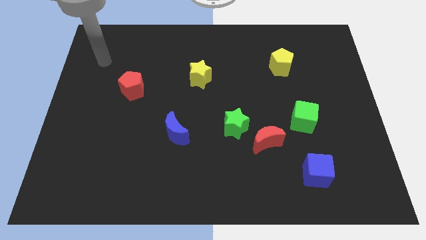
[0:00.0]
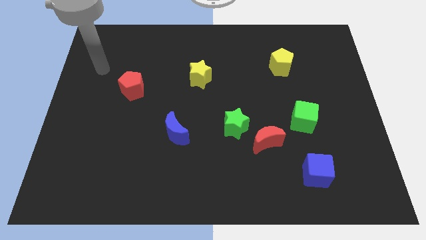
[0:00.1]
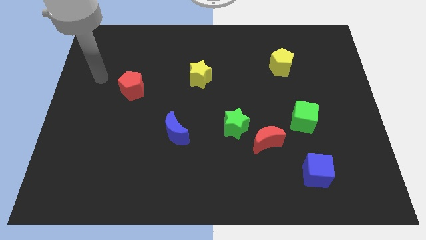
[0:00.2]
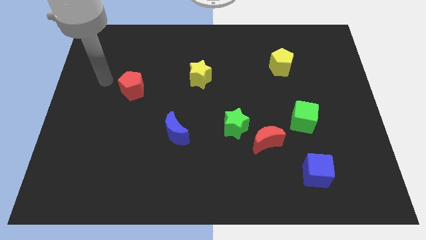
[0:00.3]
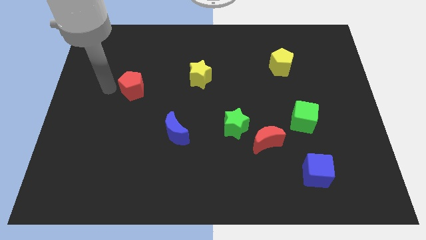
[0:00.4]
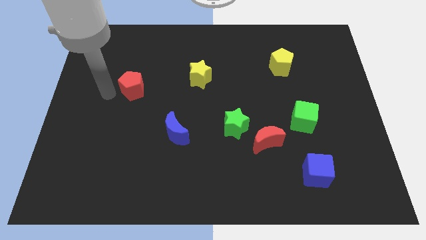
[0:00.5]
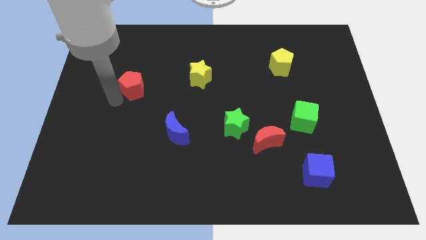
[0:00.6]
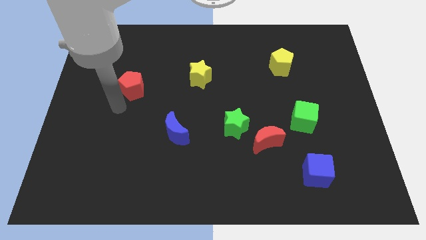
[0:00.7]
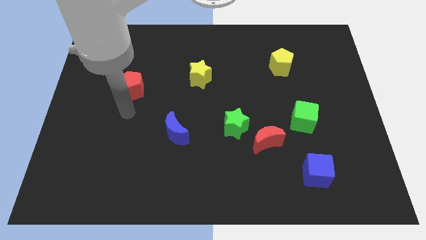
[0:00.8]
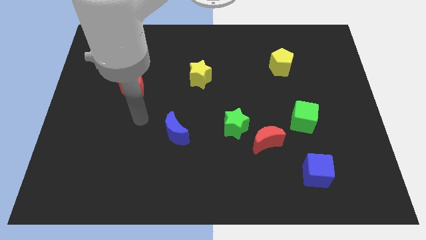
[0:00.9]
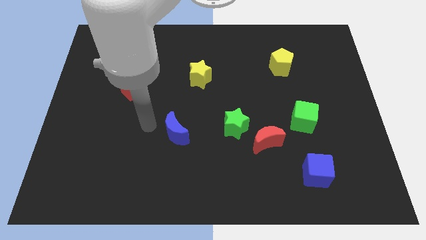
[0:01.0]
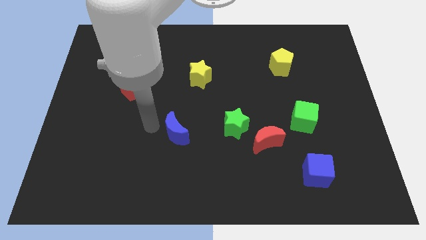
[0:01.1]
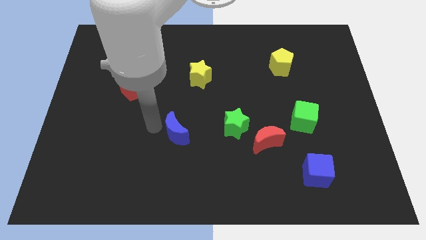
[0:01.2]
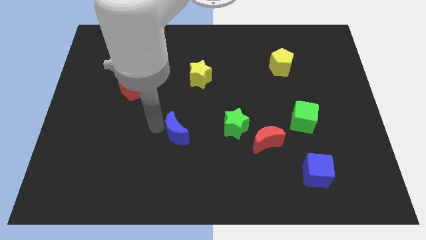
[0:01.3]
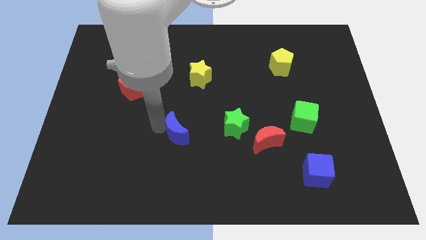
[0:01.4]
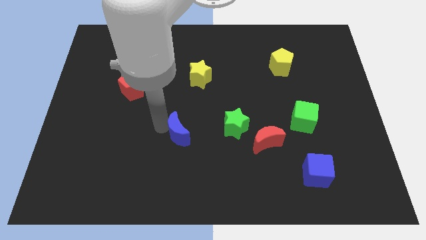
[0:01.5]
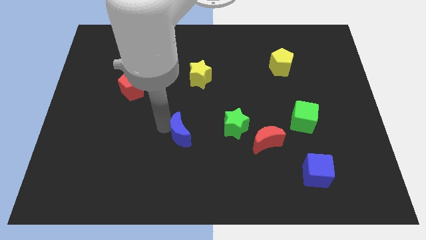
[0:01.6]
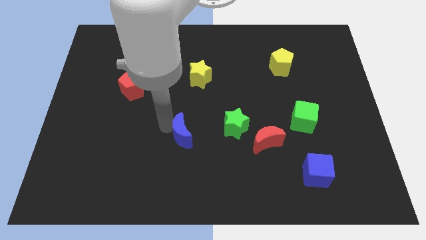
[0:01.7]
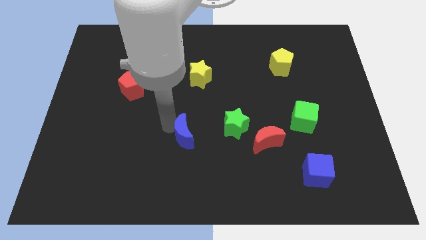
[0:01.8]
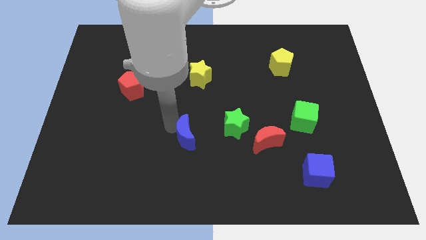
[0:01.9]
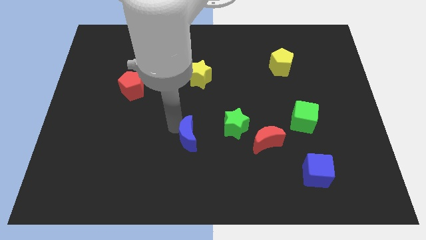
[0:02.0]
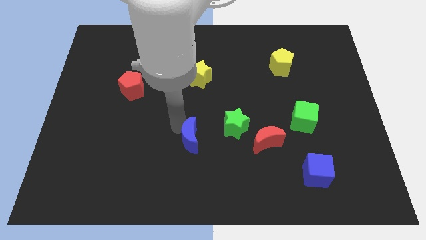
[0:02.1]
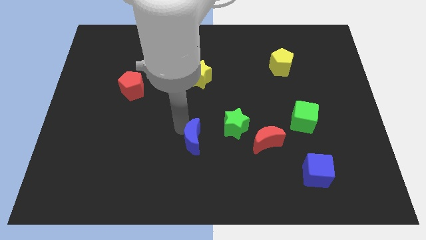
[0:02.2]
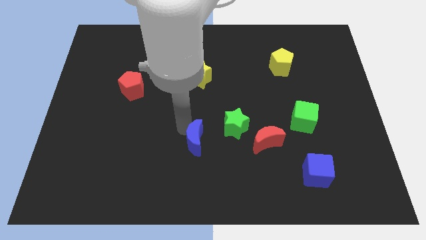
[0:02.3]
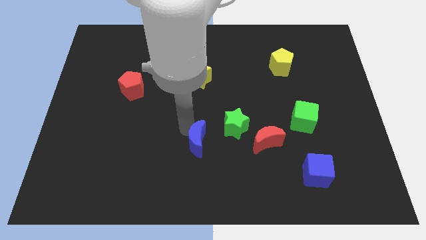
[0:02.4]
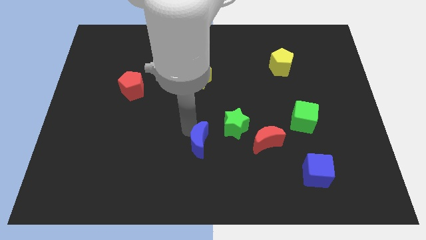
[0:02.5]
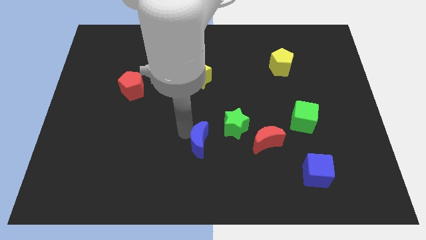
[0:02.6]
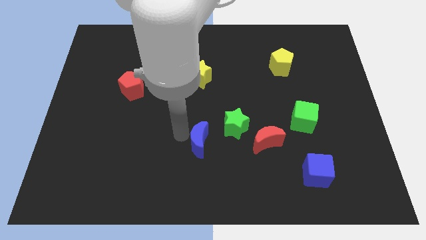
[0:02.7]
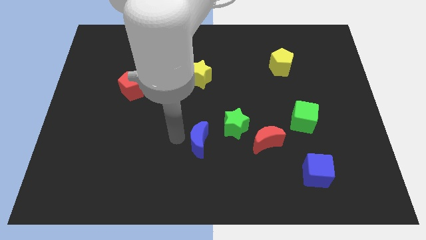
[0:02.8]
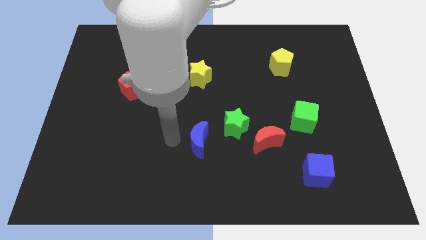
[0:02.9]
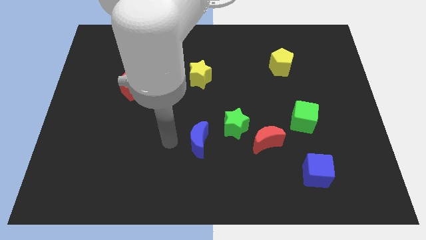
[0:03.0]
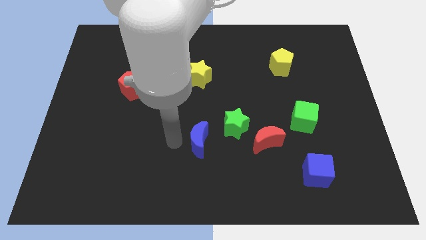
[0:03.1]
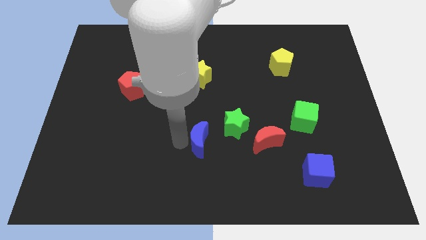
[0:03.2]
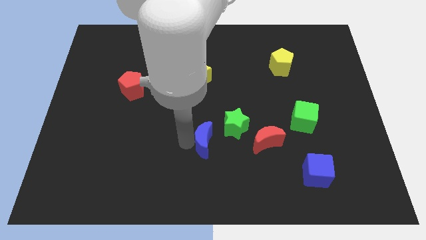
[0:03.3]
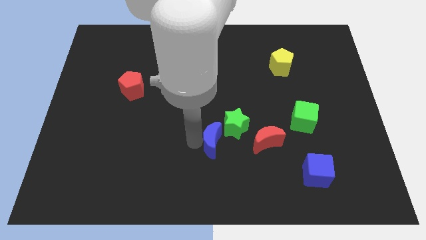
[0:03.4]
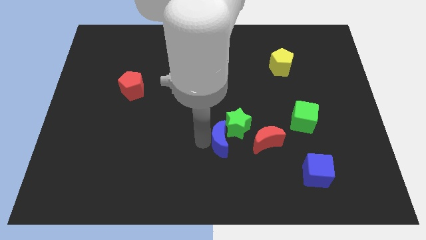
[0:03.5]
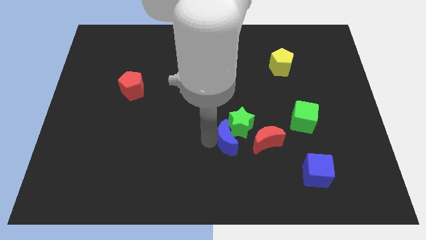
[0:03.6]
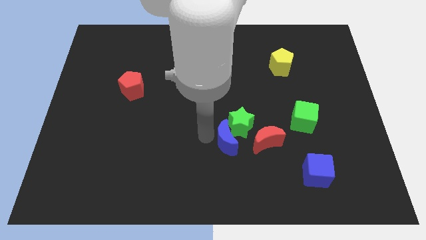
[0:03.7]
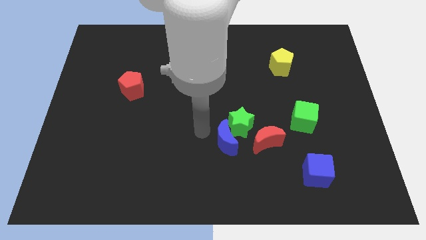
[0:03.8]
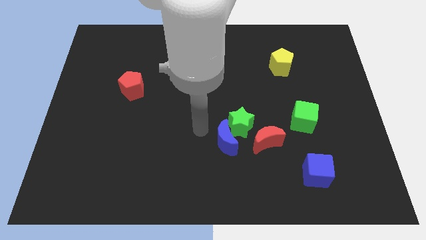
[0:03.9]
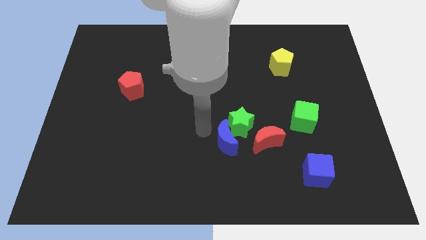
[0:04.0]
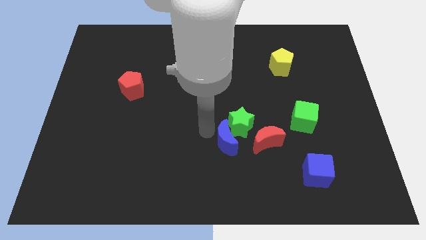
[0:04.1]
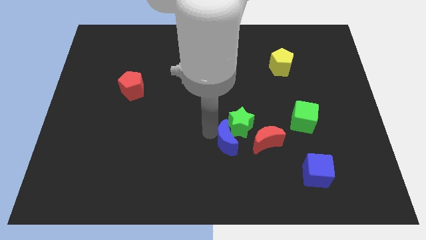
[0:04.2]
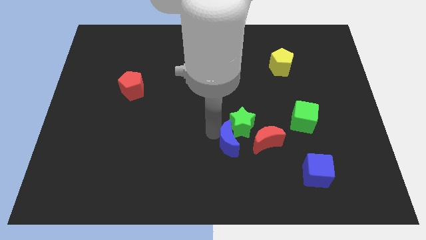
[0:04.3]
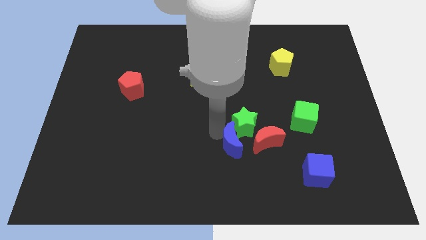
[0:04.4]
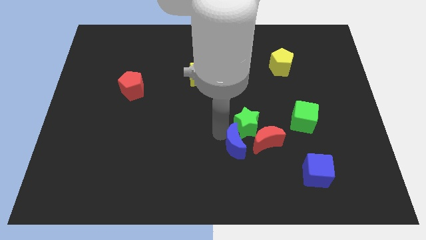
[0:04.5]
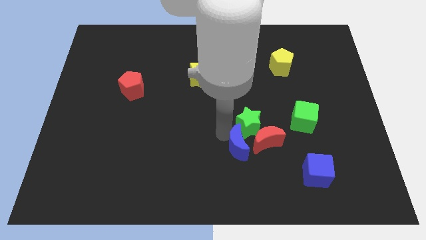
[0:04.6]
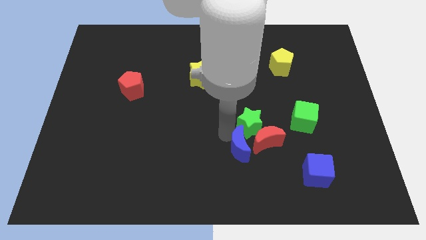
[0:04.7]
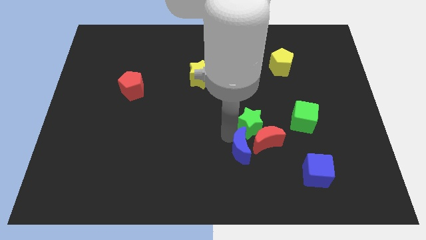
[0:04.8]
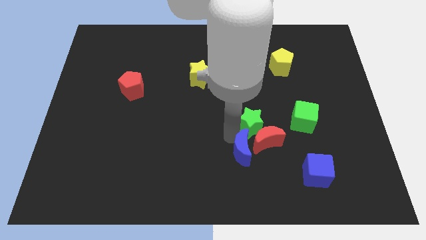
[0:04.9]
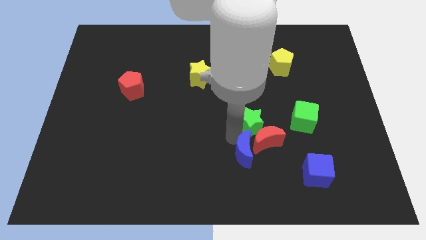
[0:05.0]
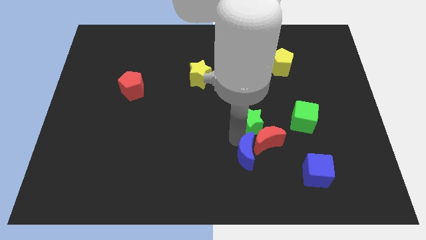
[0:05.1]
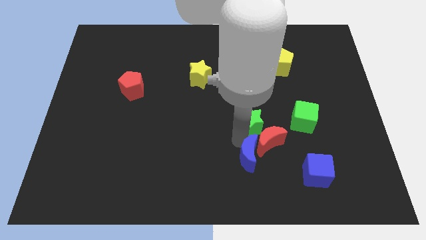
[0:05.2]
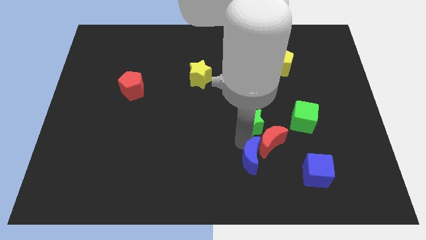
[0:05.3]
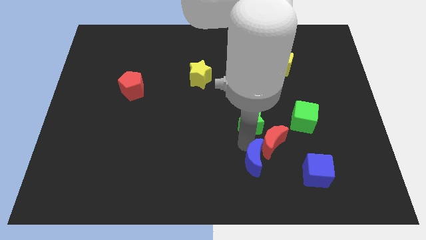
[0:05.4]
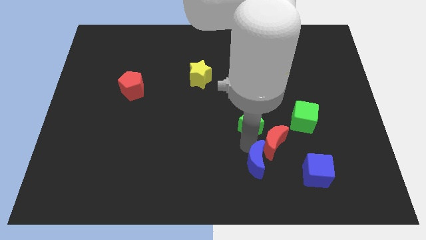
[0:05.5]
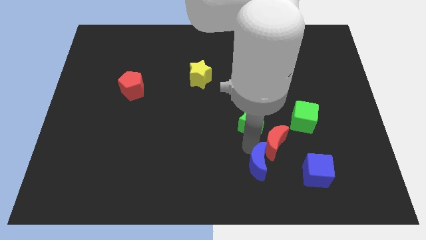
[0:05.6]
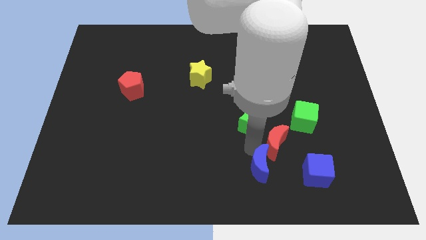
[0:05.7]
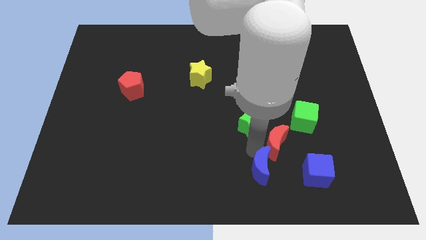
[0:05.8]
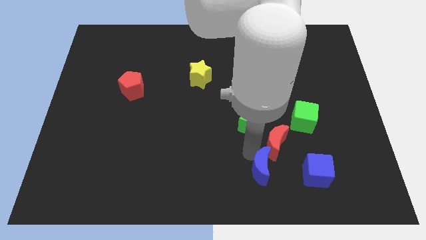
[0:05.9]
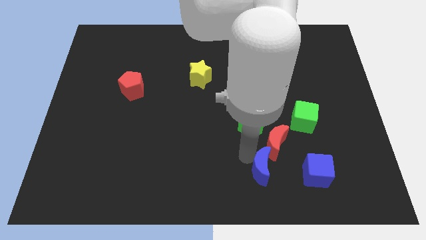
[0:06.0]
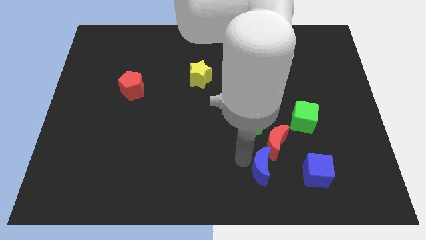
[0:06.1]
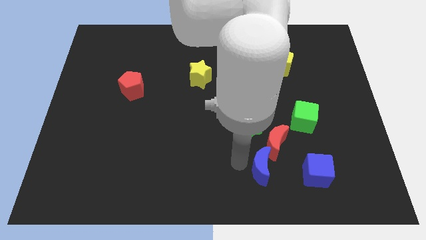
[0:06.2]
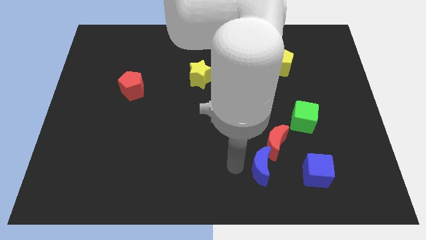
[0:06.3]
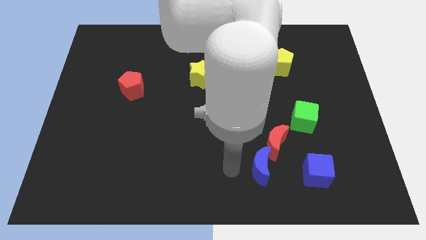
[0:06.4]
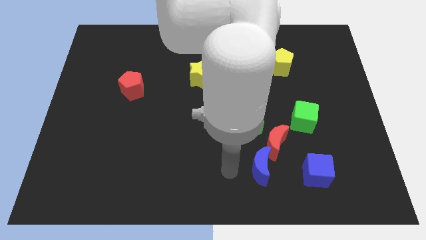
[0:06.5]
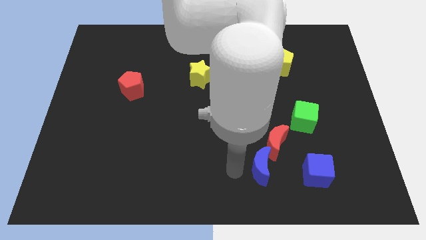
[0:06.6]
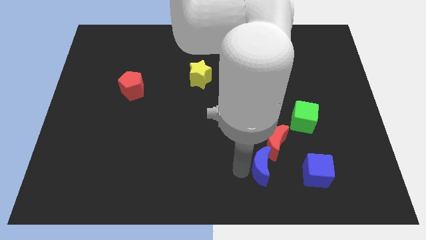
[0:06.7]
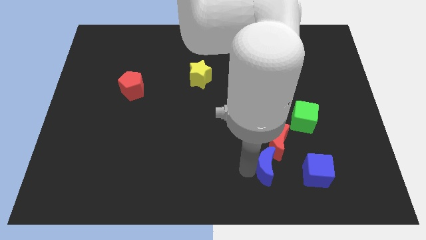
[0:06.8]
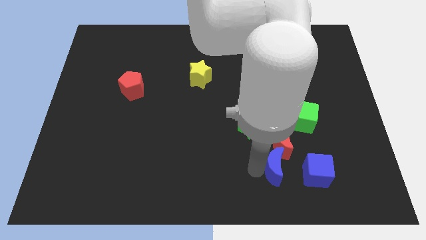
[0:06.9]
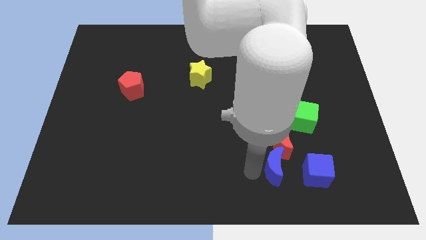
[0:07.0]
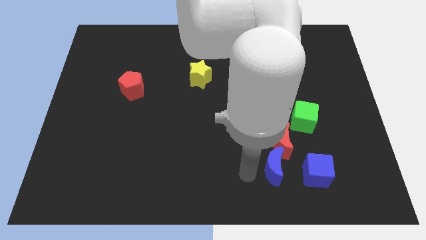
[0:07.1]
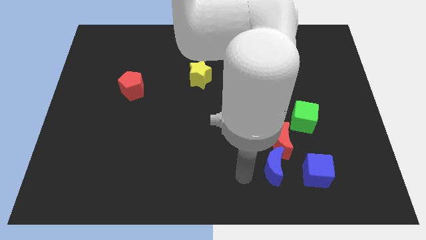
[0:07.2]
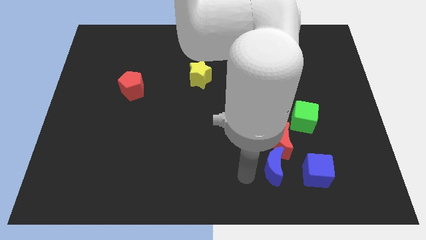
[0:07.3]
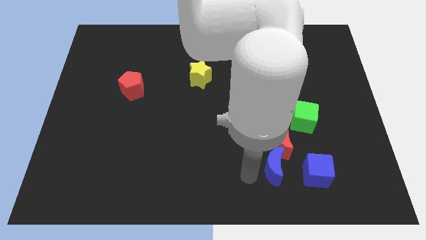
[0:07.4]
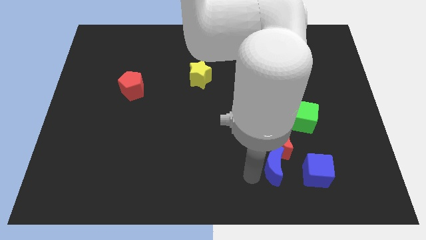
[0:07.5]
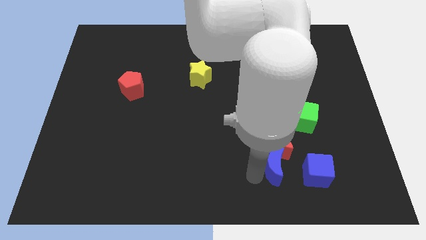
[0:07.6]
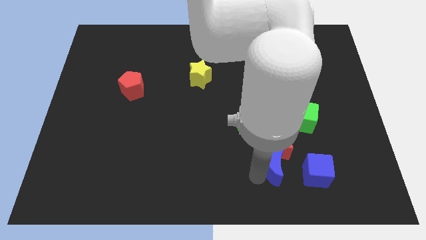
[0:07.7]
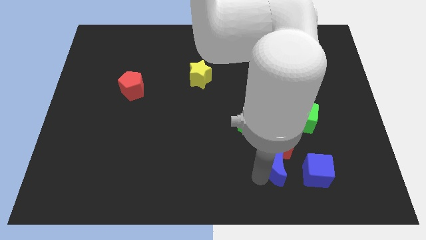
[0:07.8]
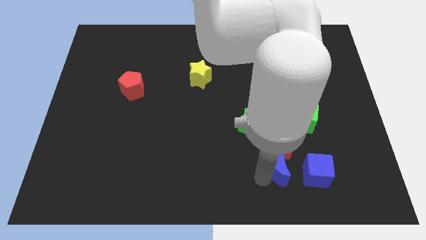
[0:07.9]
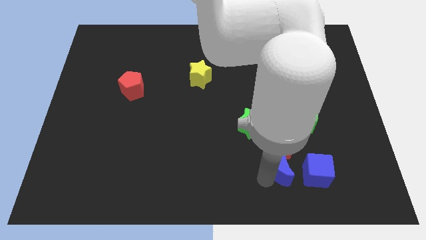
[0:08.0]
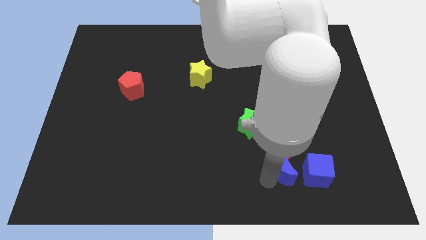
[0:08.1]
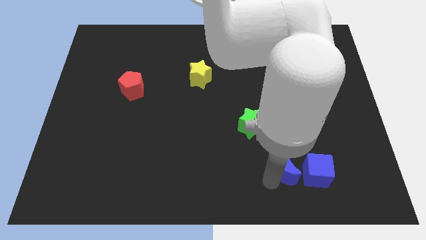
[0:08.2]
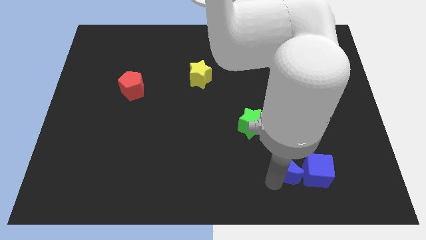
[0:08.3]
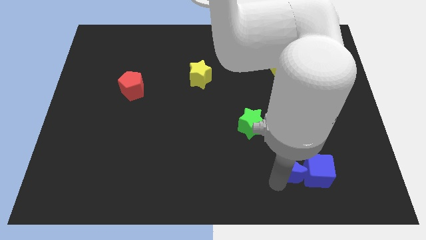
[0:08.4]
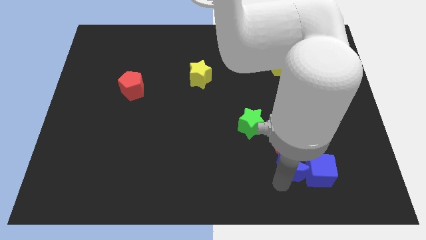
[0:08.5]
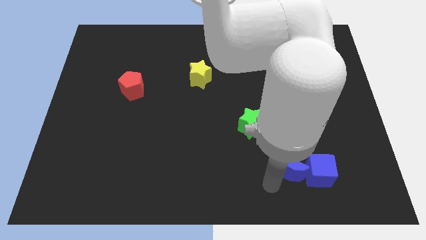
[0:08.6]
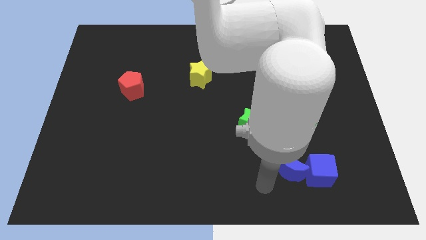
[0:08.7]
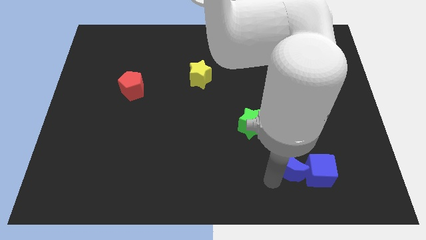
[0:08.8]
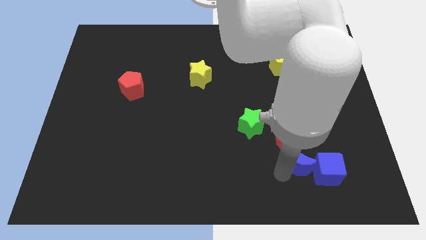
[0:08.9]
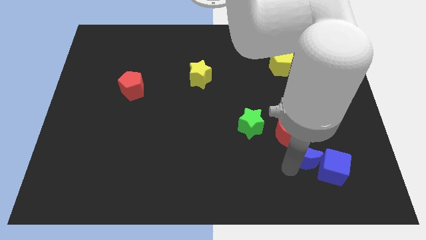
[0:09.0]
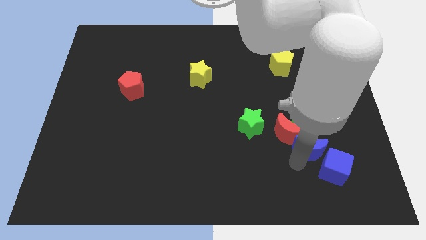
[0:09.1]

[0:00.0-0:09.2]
slide the blue moon right of the red moon

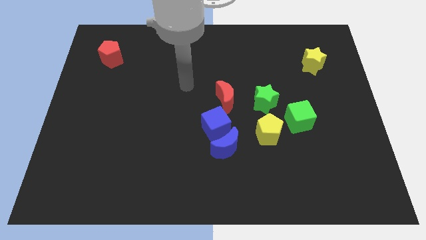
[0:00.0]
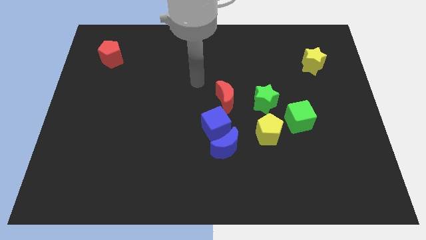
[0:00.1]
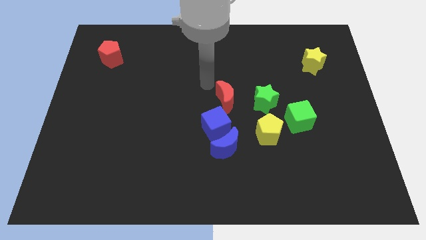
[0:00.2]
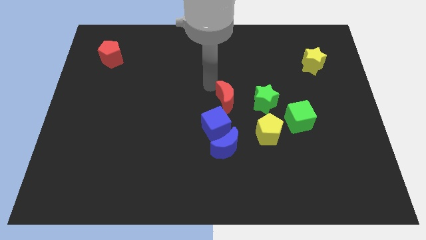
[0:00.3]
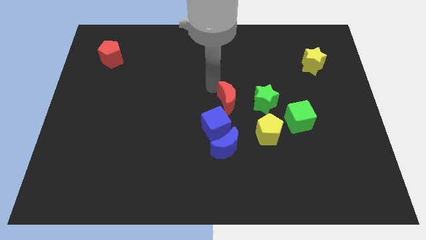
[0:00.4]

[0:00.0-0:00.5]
put the red moon diagonally up and to the left of the yellow pentagon
